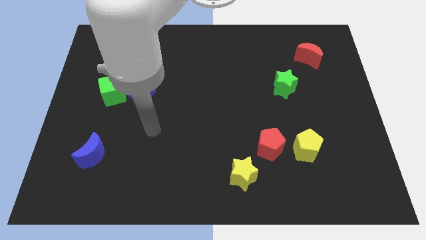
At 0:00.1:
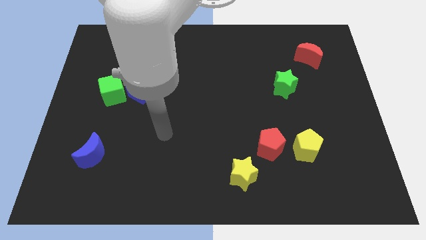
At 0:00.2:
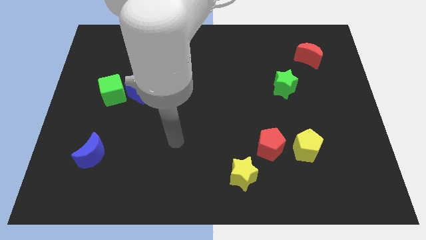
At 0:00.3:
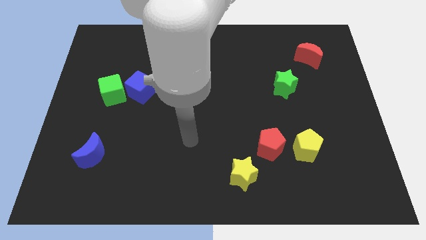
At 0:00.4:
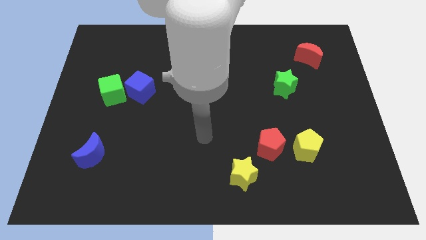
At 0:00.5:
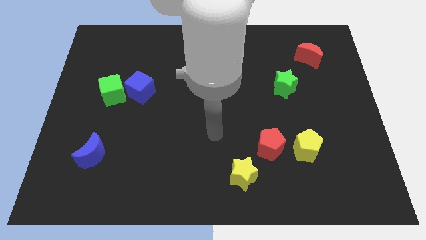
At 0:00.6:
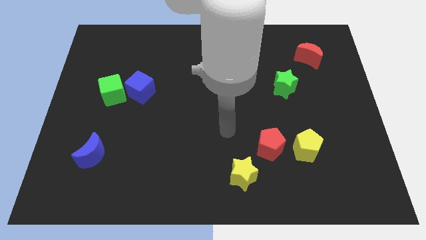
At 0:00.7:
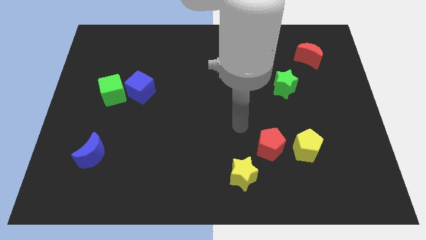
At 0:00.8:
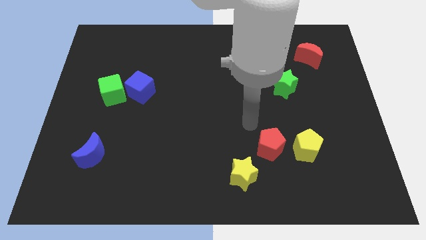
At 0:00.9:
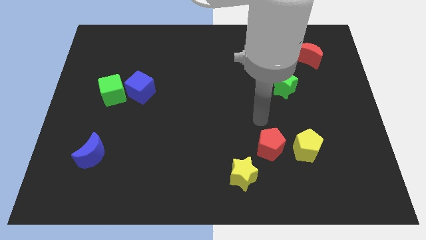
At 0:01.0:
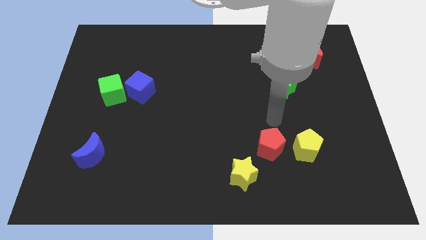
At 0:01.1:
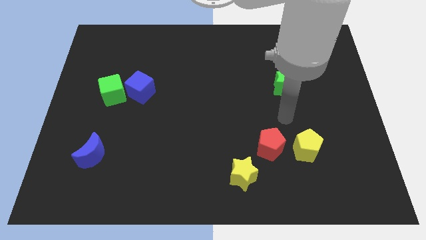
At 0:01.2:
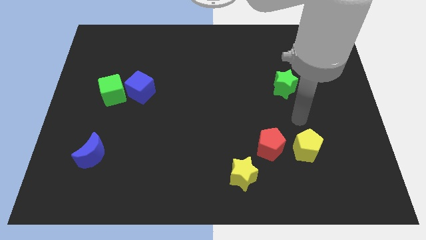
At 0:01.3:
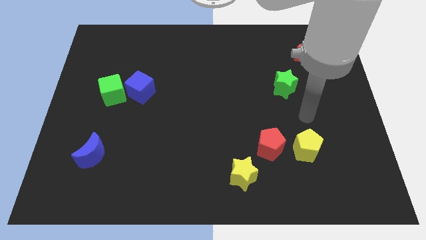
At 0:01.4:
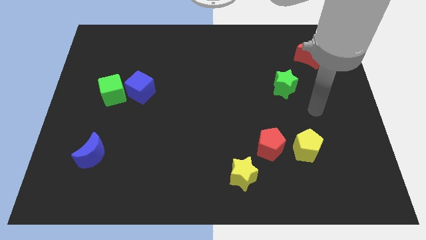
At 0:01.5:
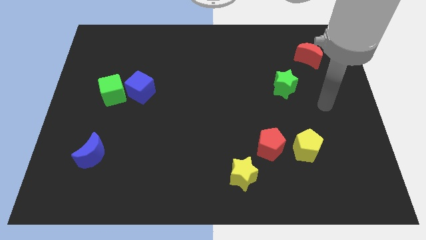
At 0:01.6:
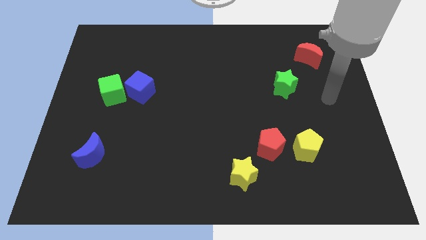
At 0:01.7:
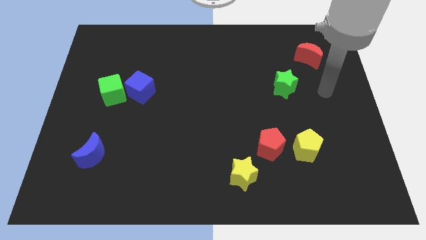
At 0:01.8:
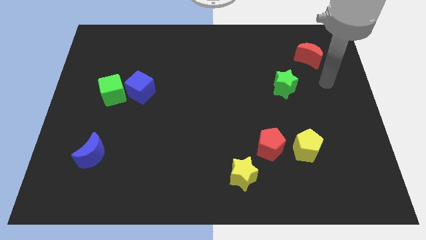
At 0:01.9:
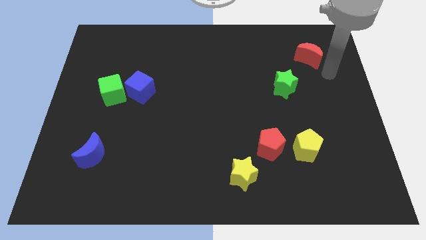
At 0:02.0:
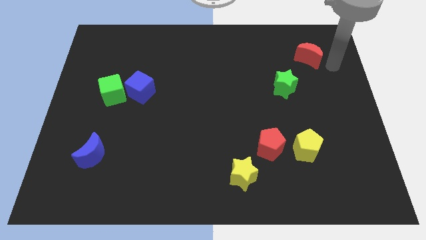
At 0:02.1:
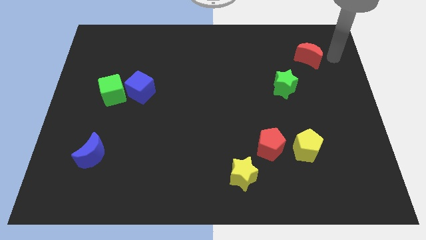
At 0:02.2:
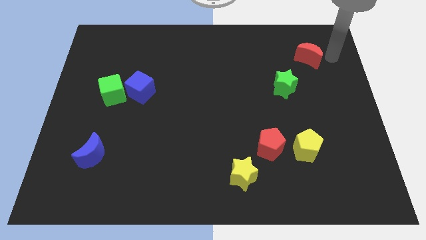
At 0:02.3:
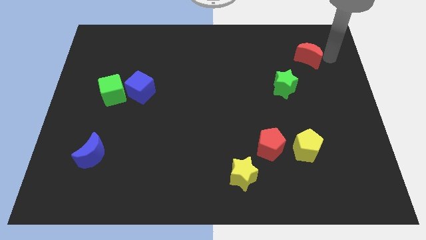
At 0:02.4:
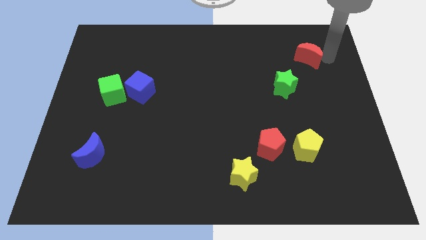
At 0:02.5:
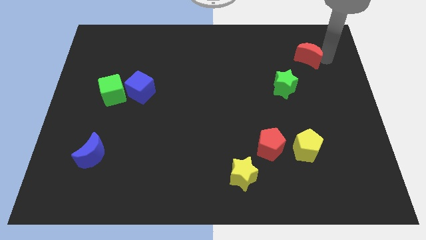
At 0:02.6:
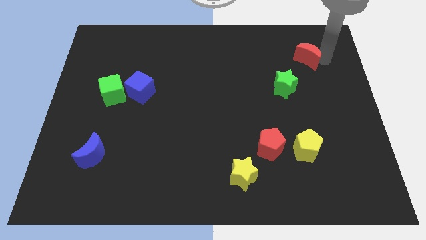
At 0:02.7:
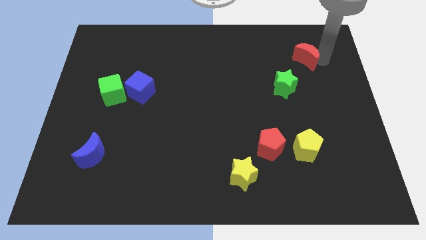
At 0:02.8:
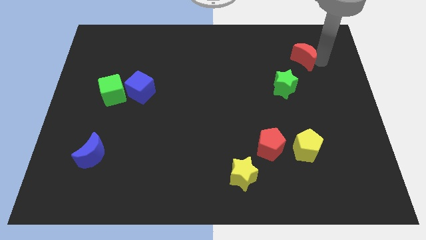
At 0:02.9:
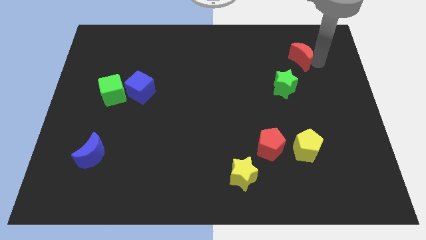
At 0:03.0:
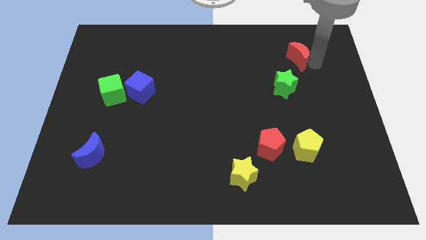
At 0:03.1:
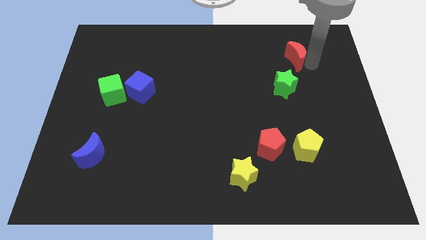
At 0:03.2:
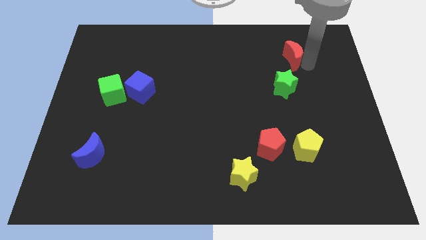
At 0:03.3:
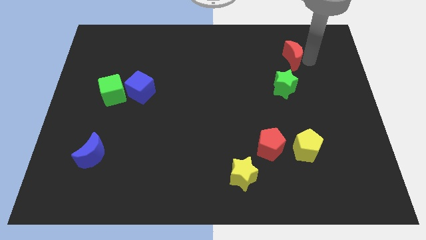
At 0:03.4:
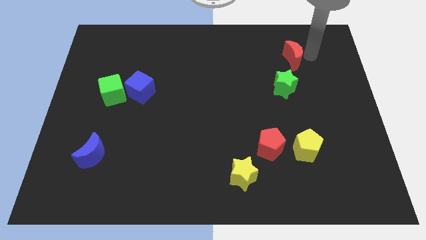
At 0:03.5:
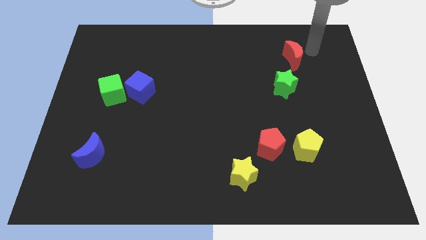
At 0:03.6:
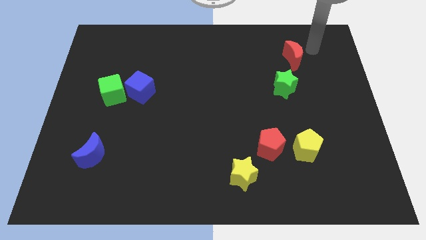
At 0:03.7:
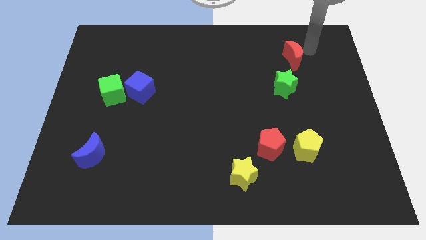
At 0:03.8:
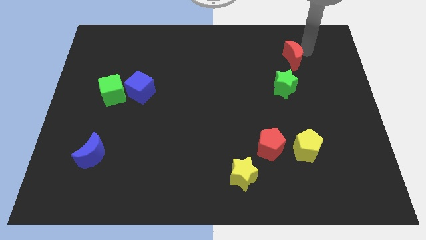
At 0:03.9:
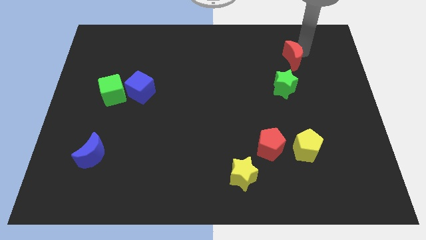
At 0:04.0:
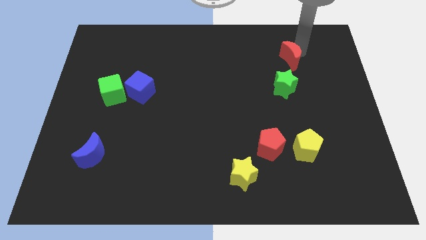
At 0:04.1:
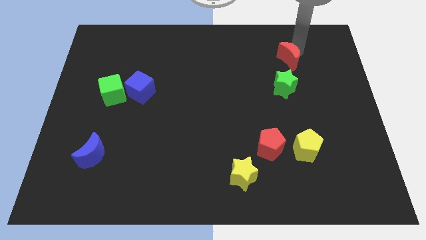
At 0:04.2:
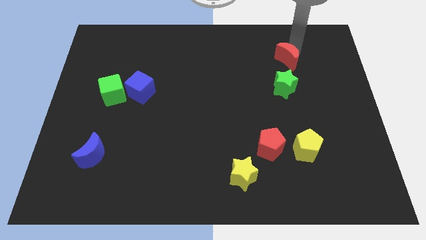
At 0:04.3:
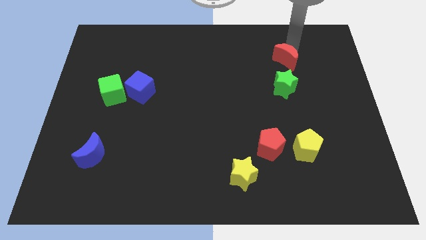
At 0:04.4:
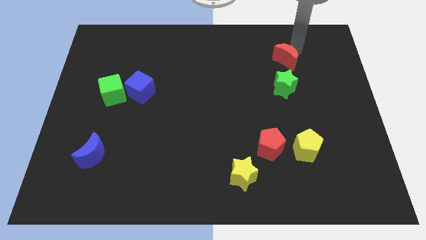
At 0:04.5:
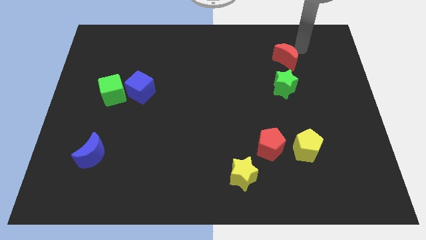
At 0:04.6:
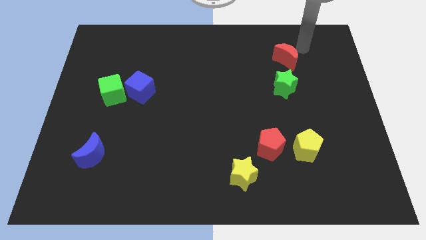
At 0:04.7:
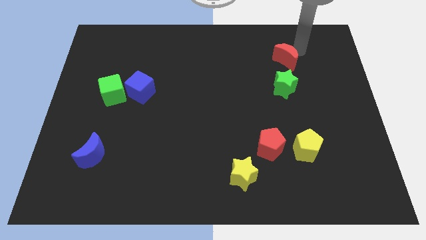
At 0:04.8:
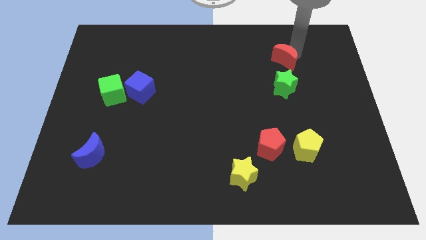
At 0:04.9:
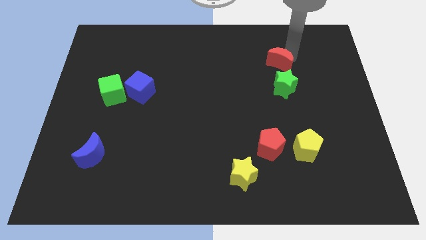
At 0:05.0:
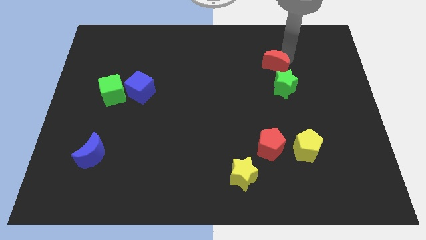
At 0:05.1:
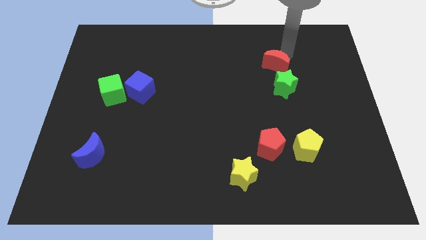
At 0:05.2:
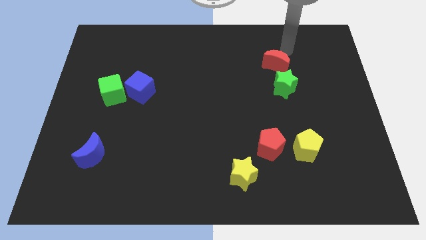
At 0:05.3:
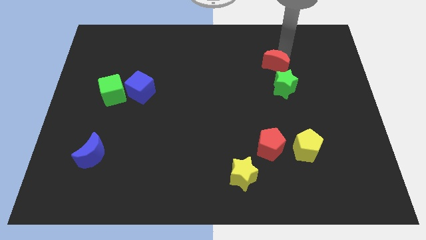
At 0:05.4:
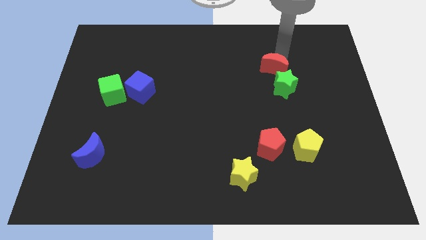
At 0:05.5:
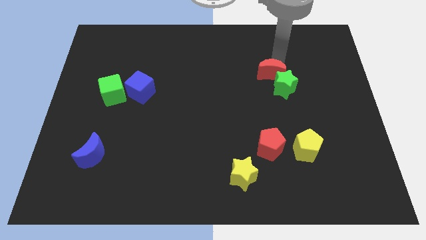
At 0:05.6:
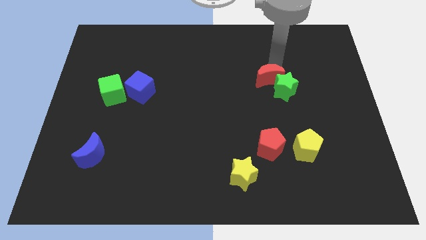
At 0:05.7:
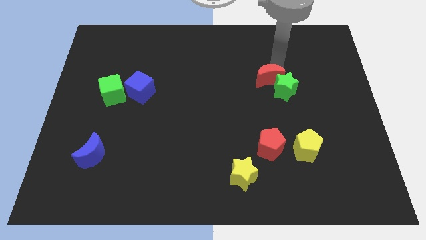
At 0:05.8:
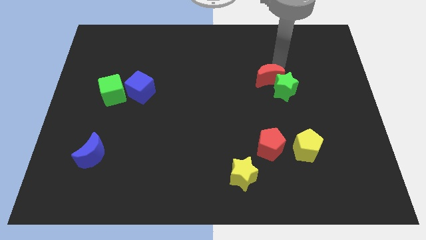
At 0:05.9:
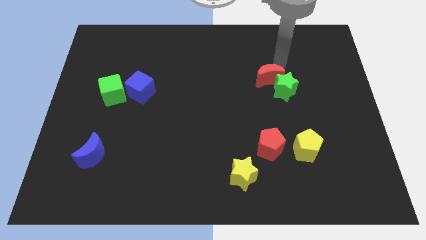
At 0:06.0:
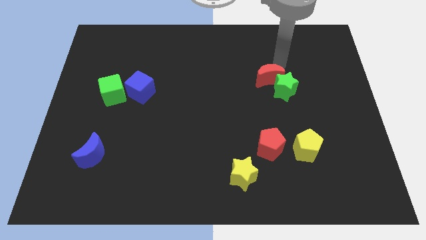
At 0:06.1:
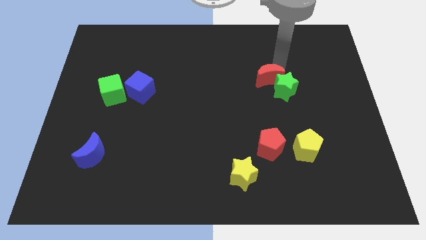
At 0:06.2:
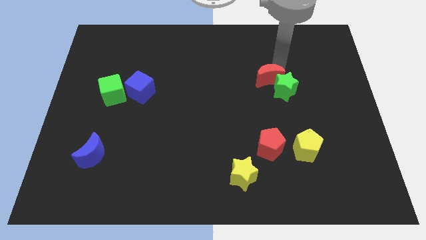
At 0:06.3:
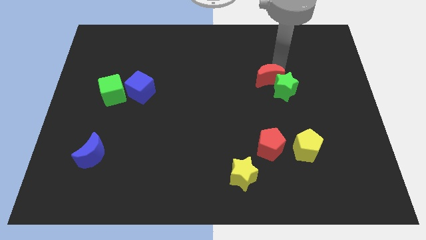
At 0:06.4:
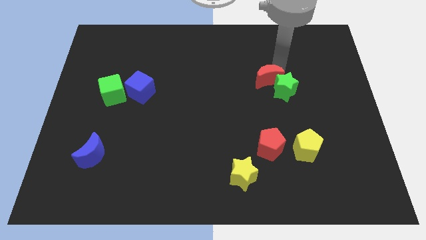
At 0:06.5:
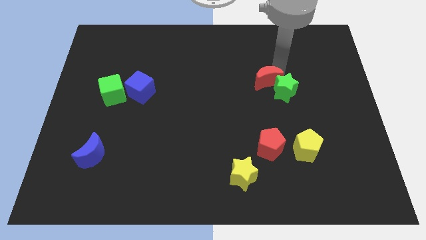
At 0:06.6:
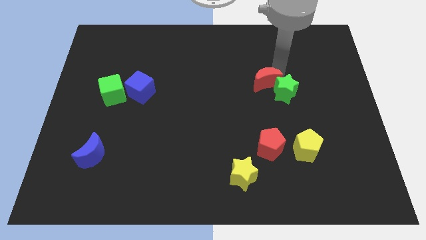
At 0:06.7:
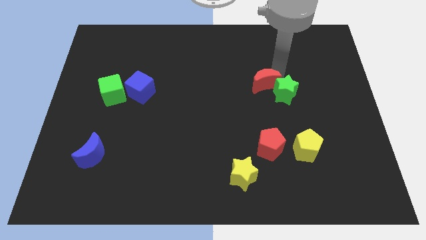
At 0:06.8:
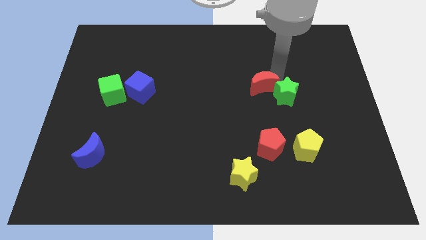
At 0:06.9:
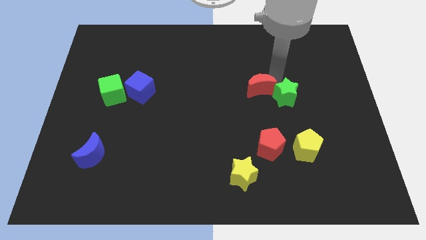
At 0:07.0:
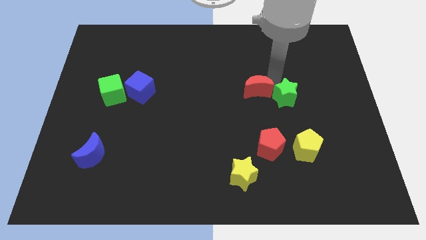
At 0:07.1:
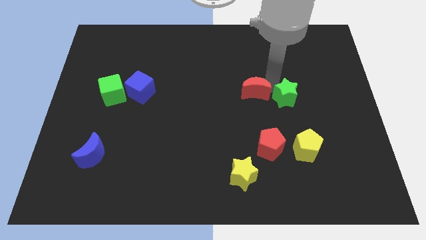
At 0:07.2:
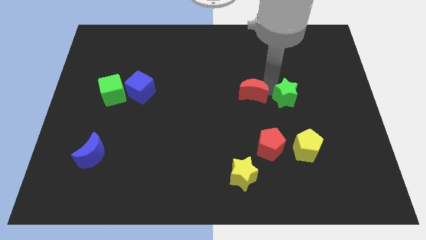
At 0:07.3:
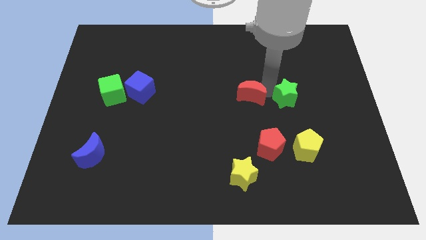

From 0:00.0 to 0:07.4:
slide the red moon down and to the left

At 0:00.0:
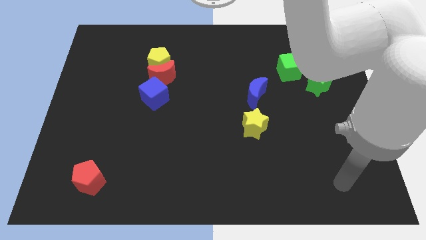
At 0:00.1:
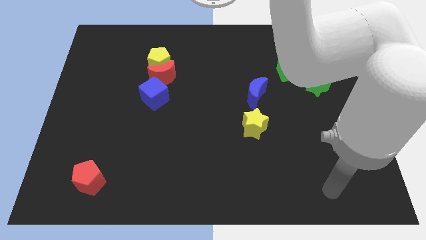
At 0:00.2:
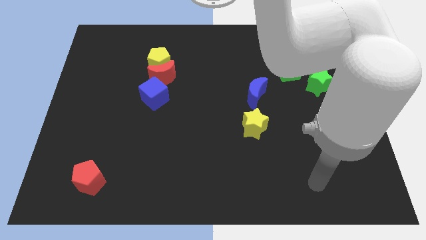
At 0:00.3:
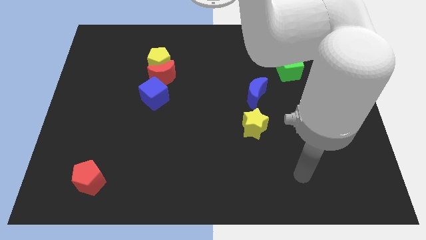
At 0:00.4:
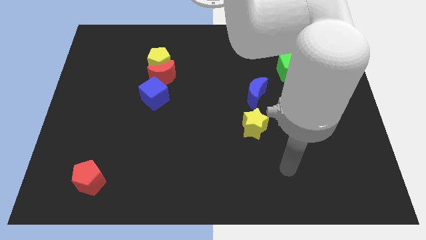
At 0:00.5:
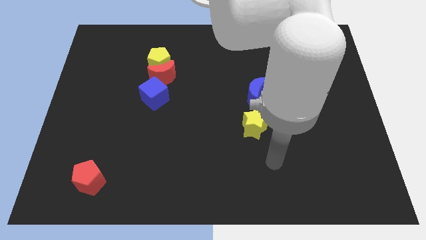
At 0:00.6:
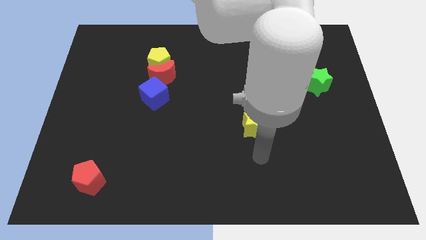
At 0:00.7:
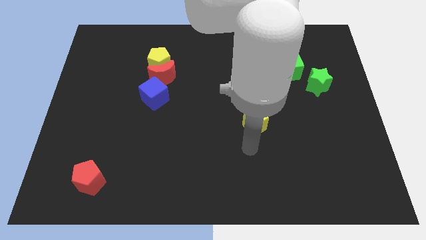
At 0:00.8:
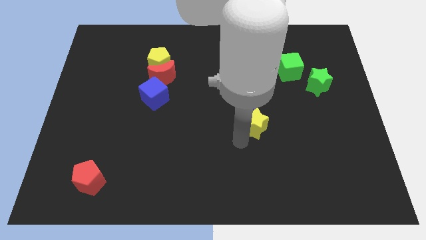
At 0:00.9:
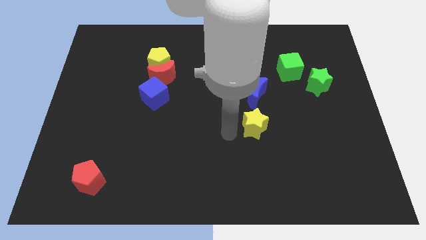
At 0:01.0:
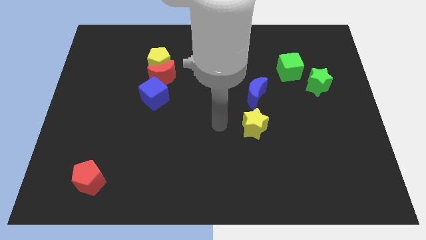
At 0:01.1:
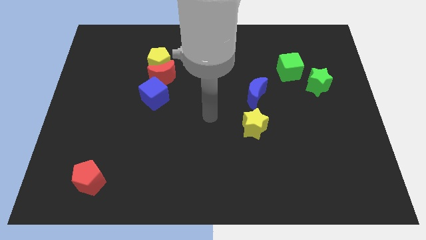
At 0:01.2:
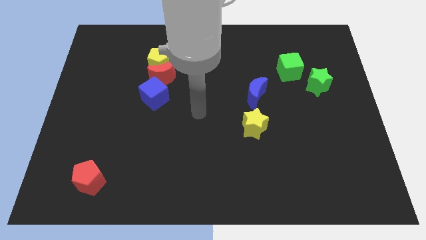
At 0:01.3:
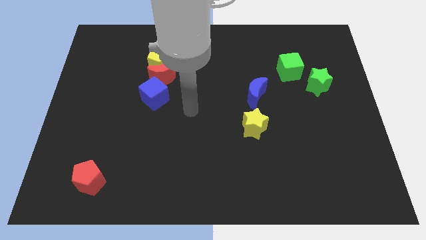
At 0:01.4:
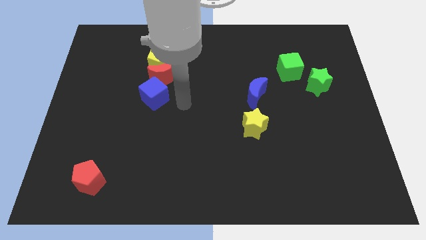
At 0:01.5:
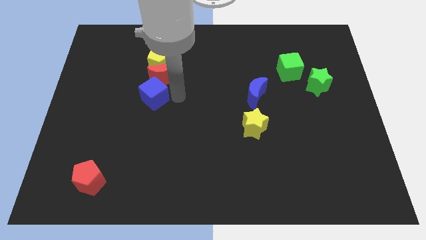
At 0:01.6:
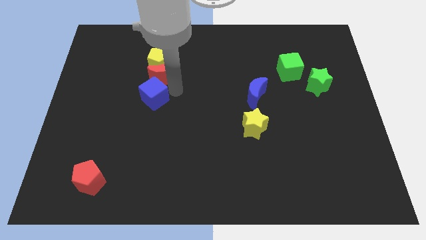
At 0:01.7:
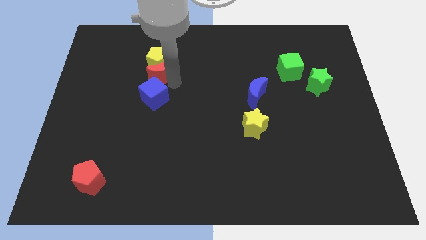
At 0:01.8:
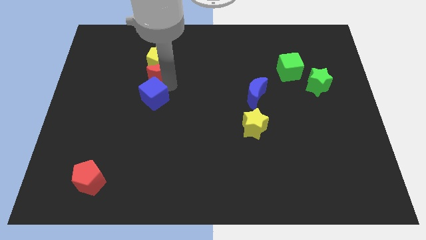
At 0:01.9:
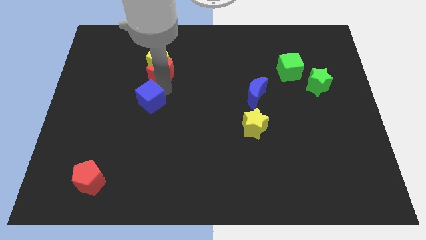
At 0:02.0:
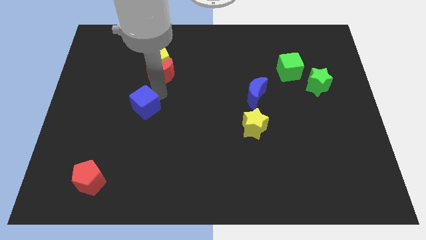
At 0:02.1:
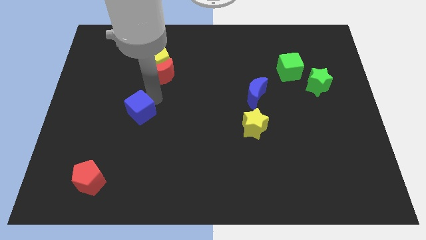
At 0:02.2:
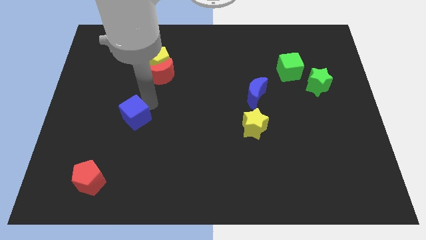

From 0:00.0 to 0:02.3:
slide the blue cube down and to the left diagonally a little bit
